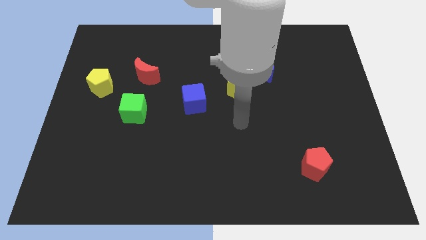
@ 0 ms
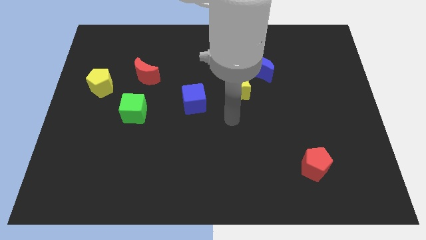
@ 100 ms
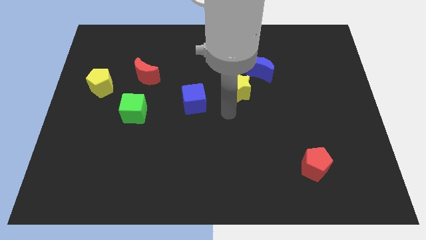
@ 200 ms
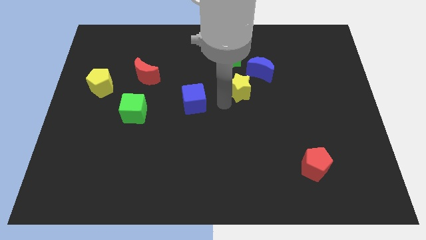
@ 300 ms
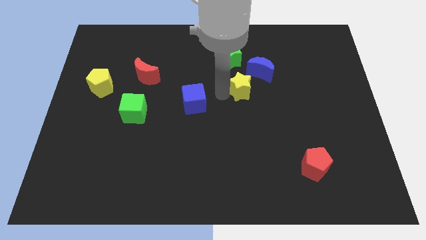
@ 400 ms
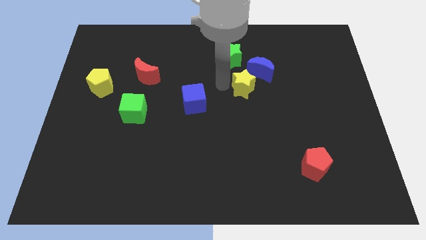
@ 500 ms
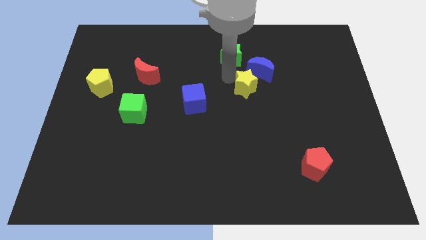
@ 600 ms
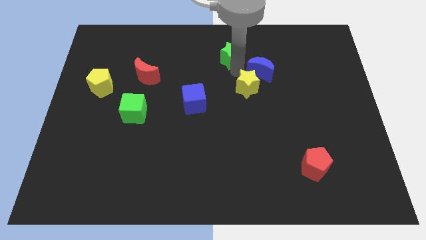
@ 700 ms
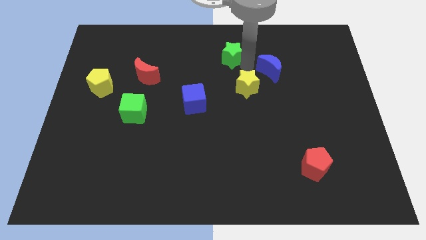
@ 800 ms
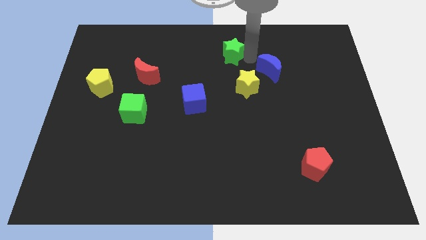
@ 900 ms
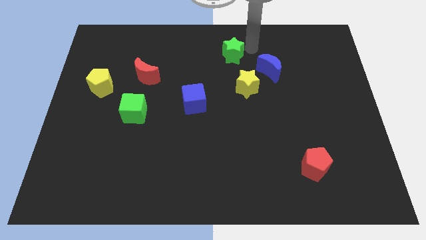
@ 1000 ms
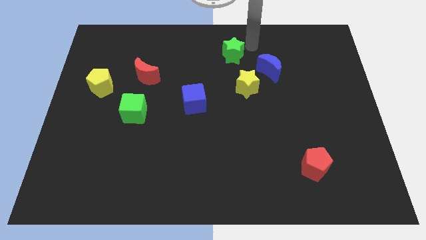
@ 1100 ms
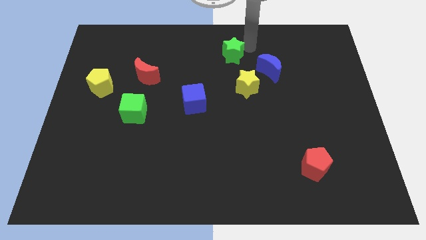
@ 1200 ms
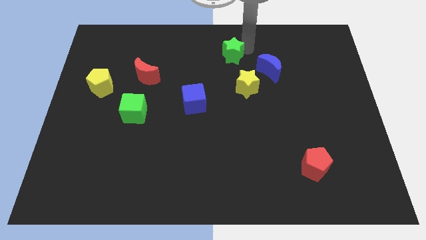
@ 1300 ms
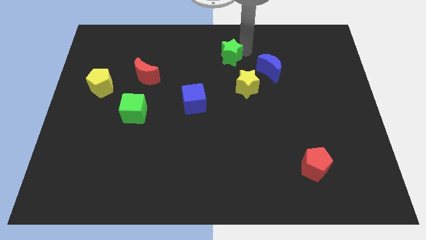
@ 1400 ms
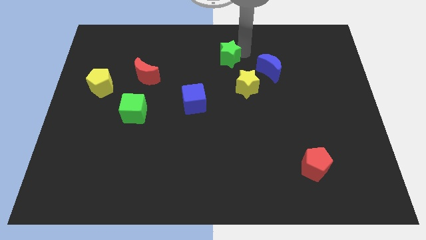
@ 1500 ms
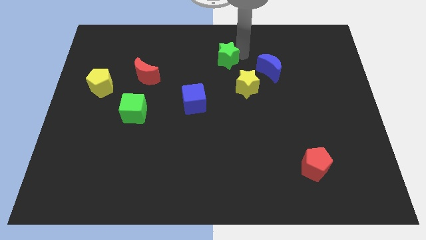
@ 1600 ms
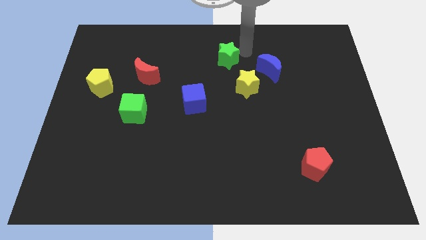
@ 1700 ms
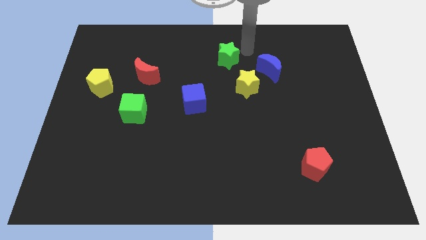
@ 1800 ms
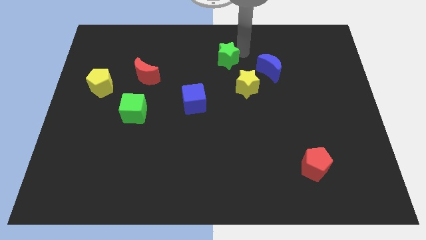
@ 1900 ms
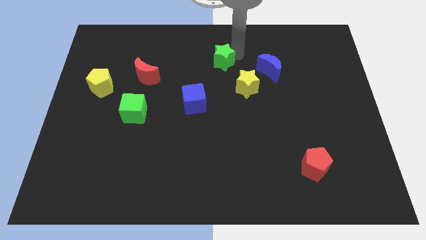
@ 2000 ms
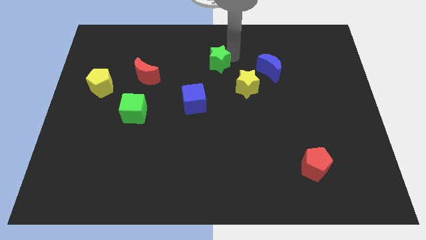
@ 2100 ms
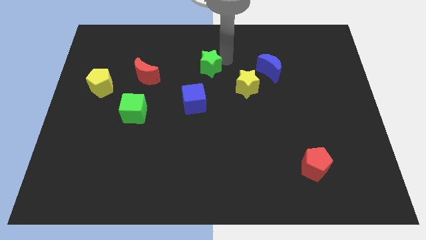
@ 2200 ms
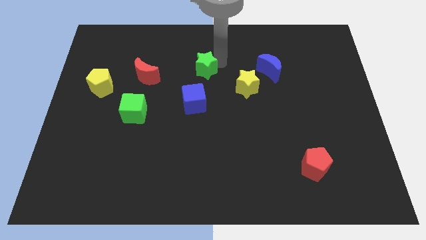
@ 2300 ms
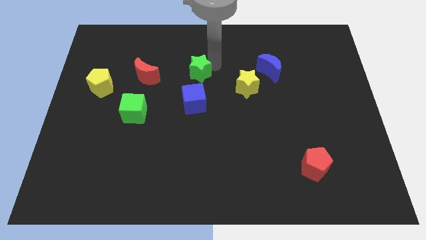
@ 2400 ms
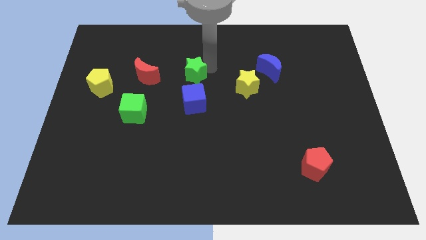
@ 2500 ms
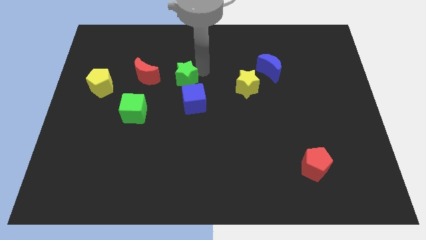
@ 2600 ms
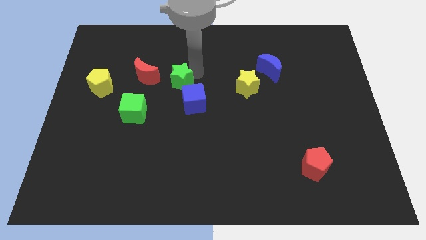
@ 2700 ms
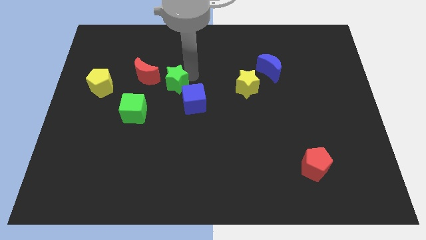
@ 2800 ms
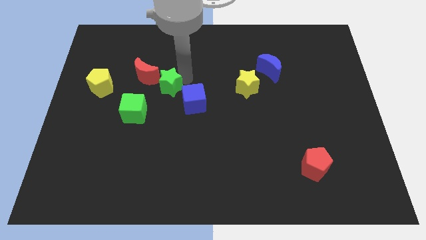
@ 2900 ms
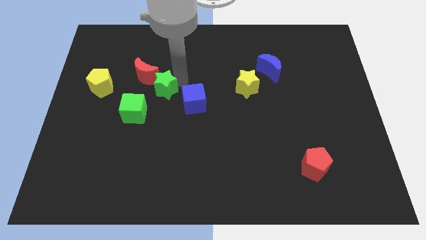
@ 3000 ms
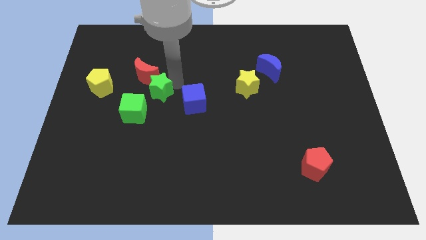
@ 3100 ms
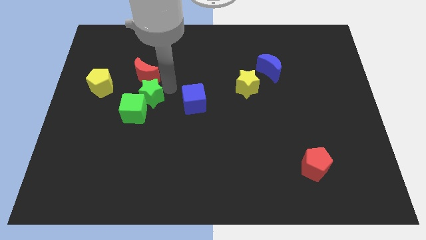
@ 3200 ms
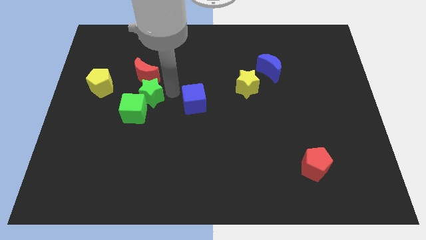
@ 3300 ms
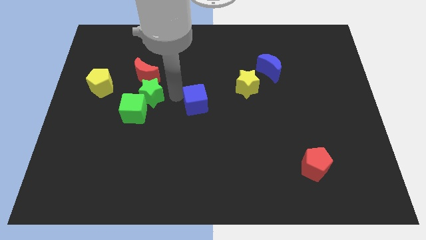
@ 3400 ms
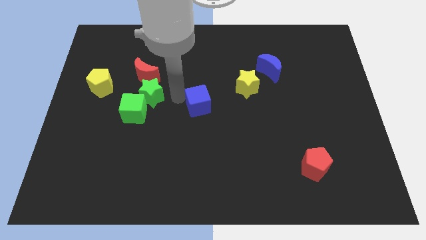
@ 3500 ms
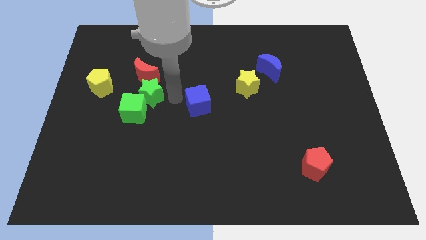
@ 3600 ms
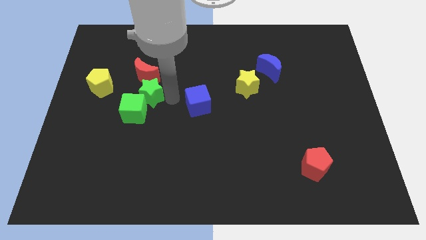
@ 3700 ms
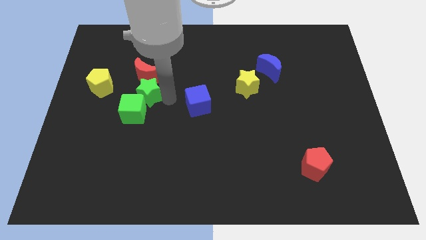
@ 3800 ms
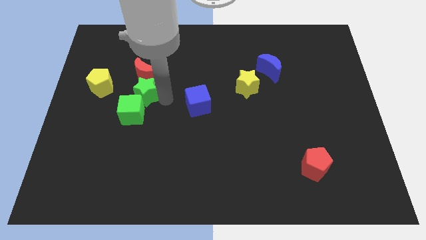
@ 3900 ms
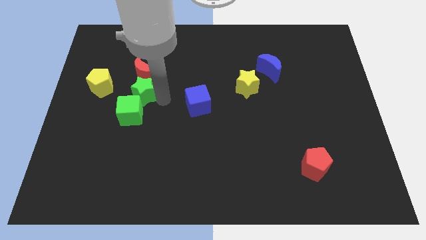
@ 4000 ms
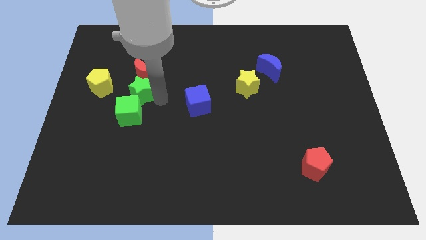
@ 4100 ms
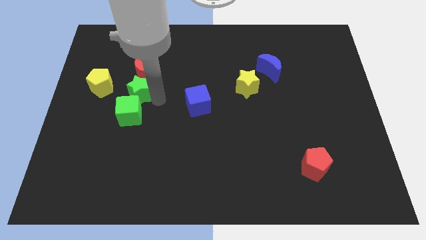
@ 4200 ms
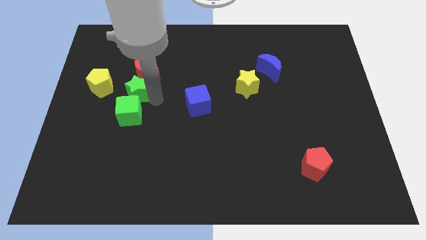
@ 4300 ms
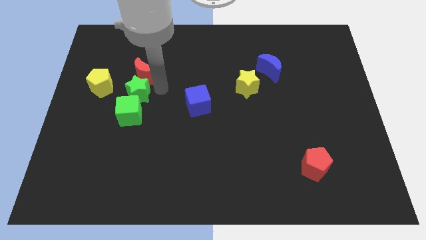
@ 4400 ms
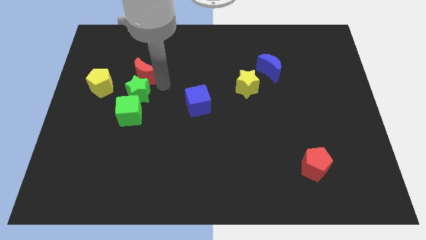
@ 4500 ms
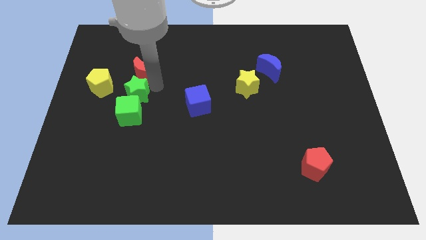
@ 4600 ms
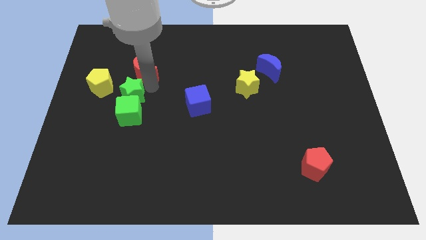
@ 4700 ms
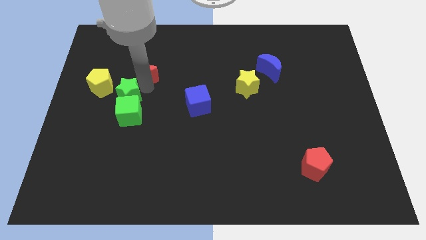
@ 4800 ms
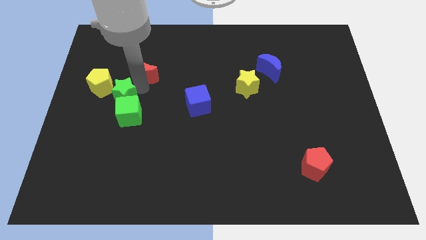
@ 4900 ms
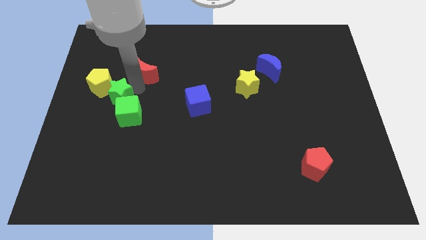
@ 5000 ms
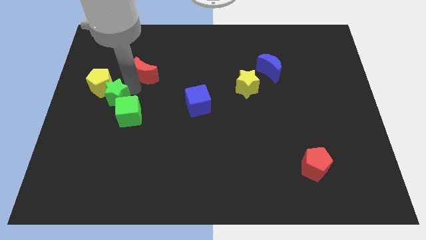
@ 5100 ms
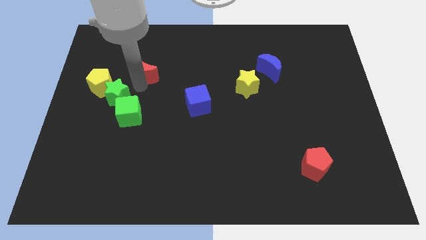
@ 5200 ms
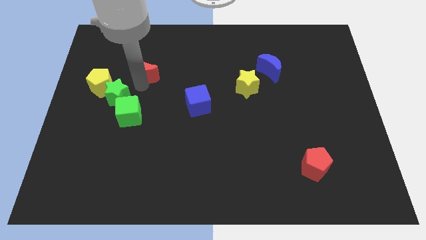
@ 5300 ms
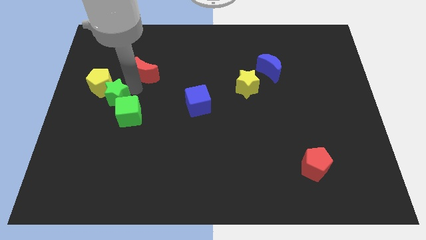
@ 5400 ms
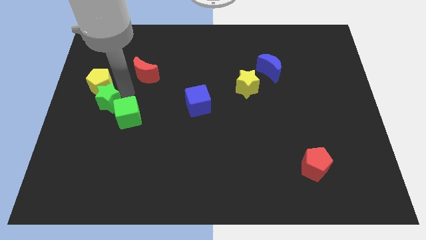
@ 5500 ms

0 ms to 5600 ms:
move the green star to the left side of the green cube

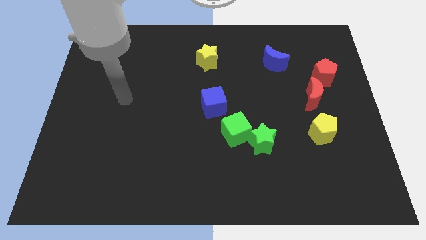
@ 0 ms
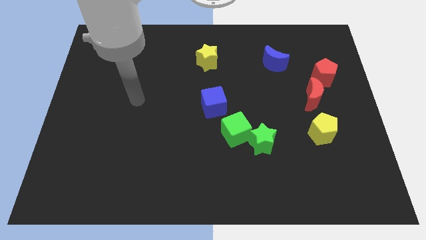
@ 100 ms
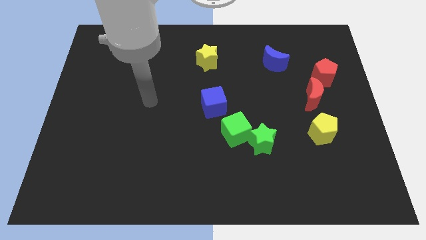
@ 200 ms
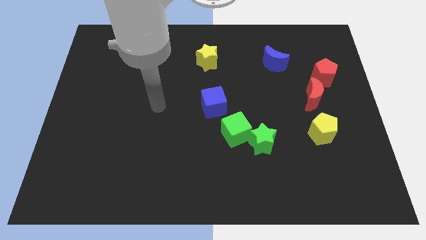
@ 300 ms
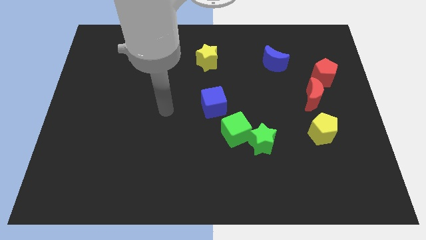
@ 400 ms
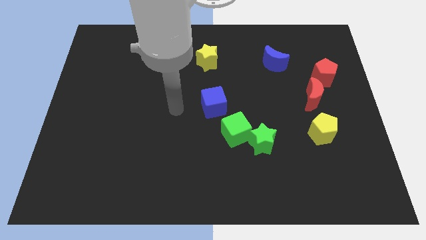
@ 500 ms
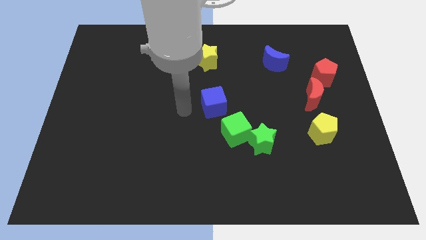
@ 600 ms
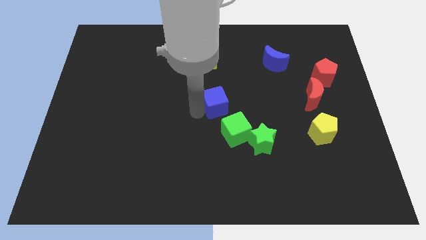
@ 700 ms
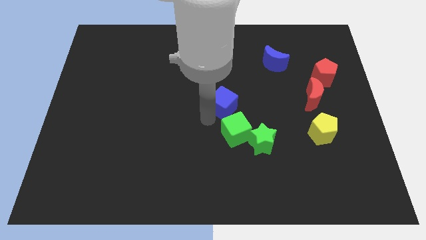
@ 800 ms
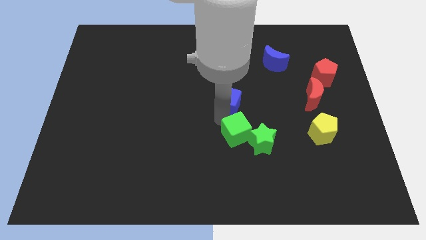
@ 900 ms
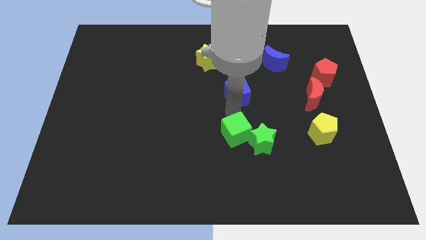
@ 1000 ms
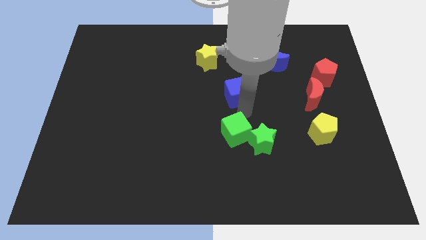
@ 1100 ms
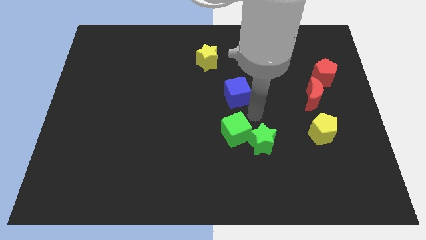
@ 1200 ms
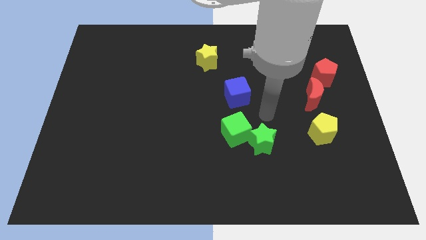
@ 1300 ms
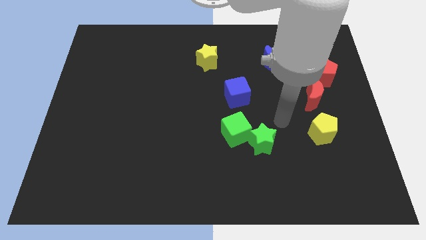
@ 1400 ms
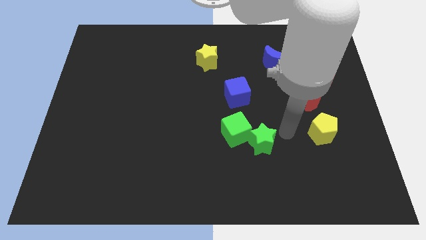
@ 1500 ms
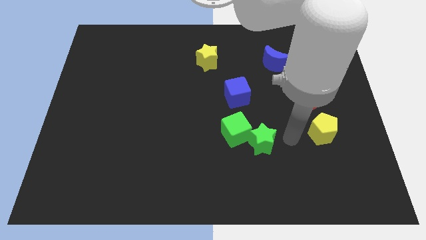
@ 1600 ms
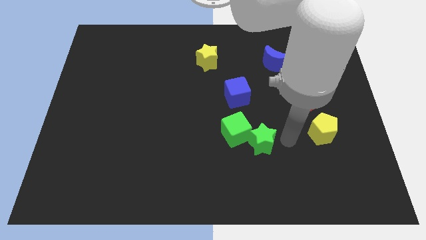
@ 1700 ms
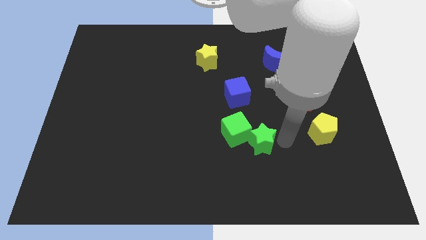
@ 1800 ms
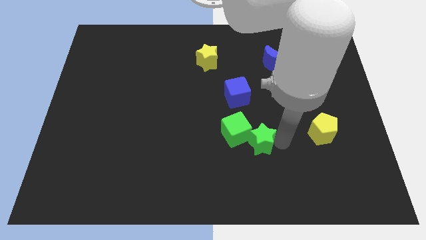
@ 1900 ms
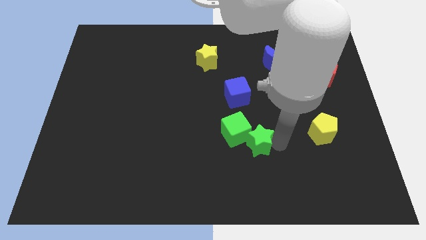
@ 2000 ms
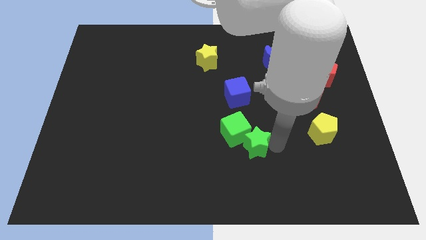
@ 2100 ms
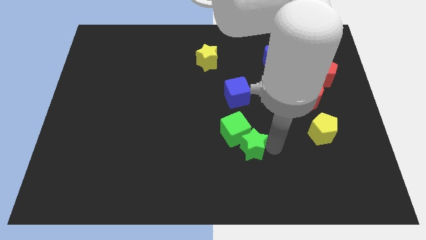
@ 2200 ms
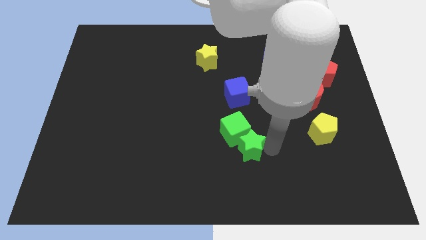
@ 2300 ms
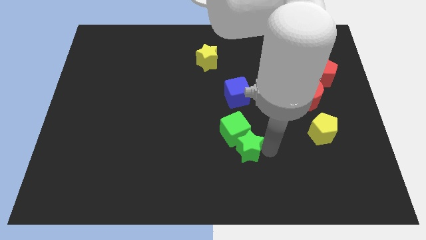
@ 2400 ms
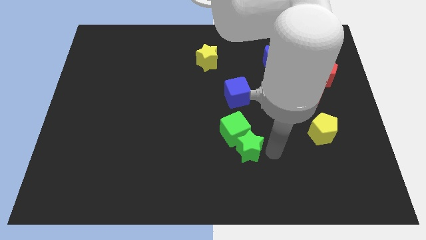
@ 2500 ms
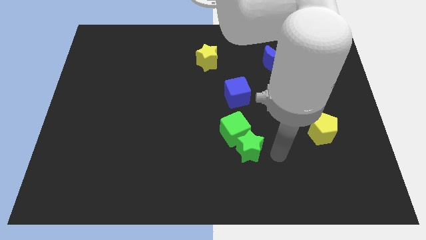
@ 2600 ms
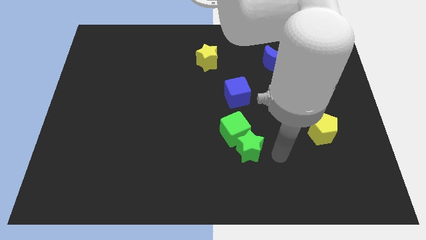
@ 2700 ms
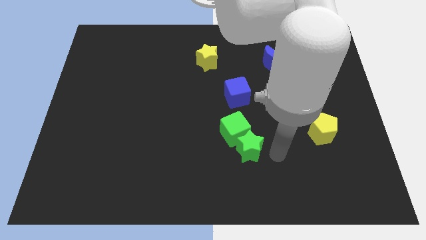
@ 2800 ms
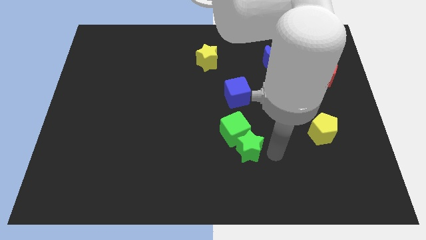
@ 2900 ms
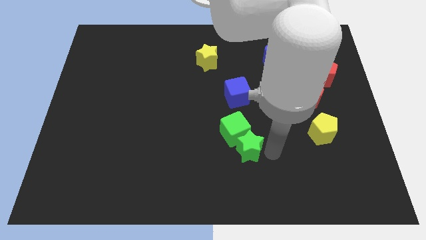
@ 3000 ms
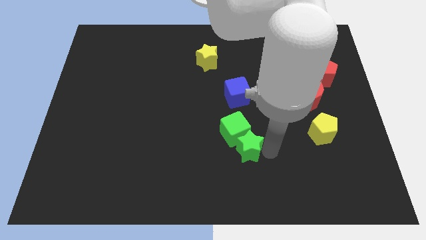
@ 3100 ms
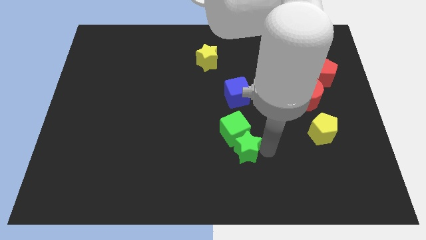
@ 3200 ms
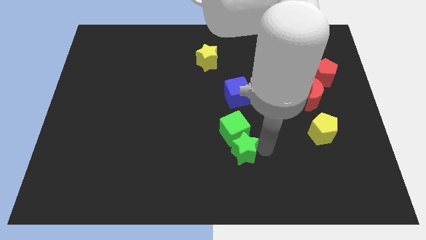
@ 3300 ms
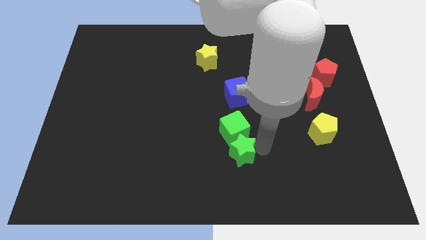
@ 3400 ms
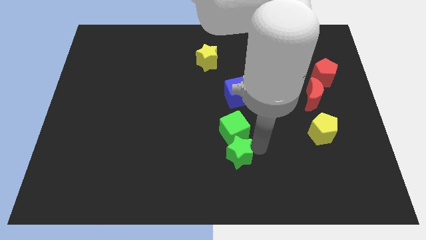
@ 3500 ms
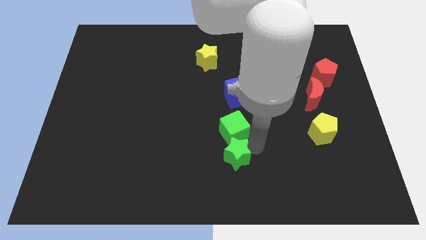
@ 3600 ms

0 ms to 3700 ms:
move the green star diagonally down and to the left of the green cube
